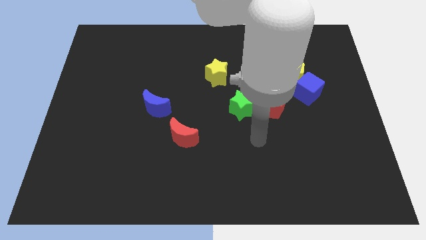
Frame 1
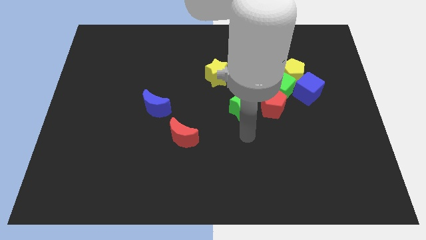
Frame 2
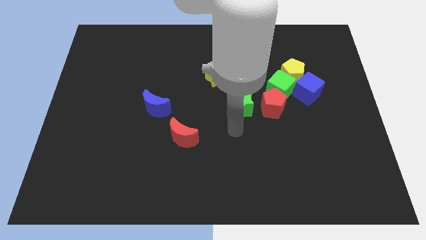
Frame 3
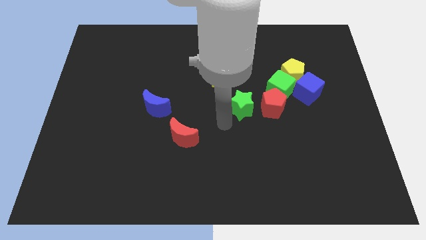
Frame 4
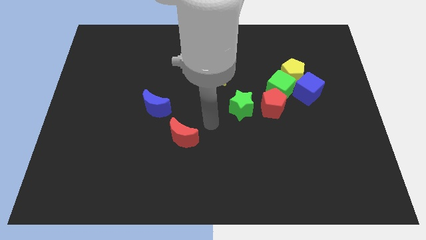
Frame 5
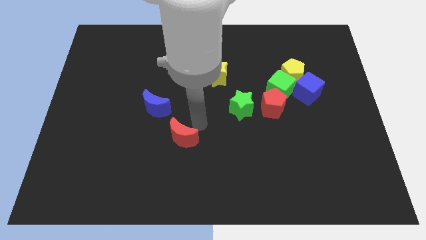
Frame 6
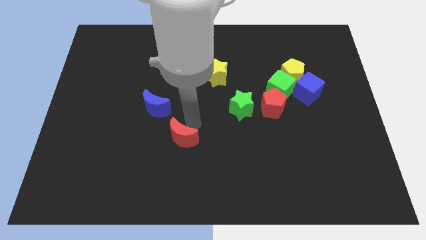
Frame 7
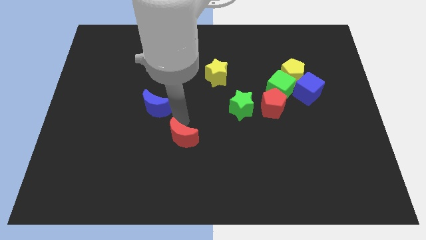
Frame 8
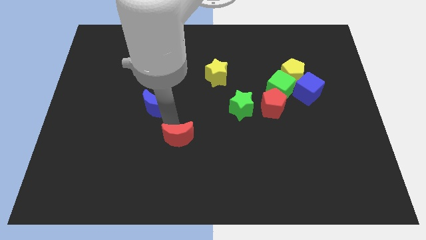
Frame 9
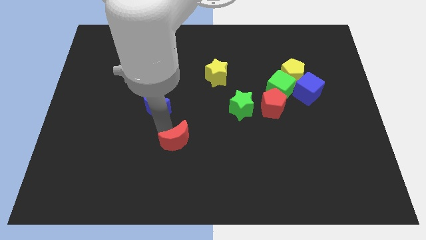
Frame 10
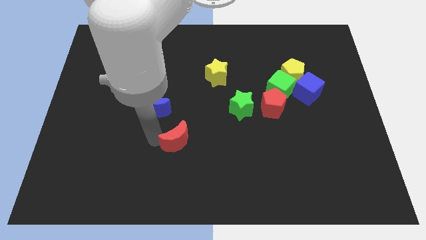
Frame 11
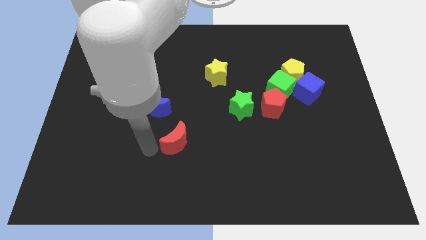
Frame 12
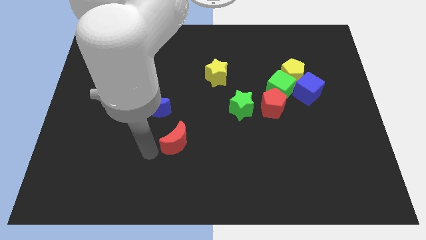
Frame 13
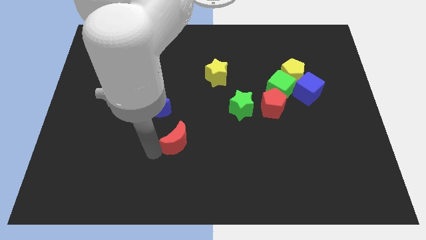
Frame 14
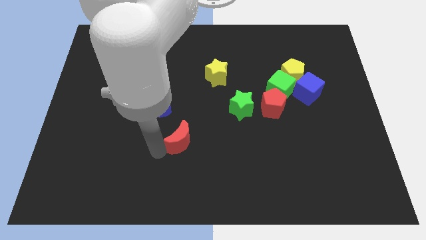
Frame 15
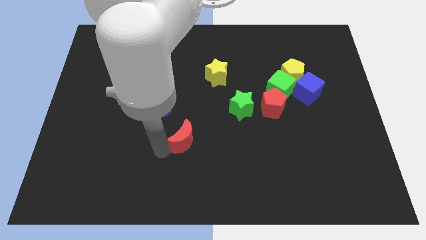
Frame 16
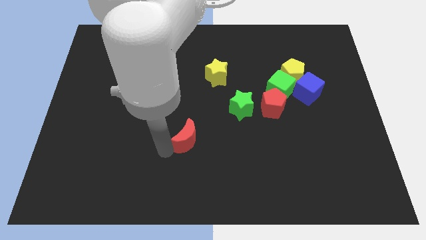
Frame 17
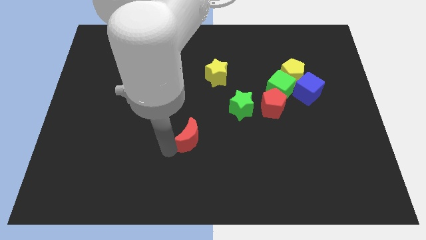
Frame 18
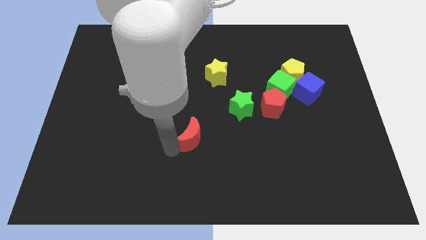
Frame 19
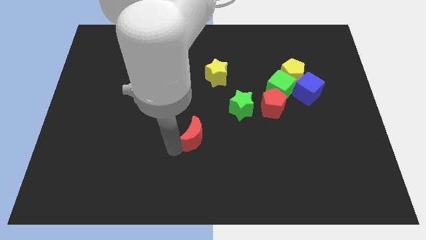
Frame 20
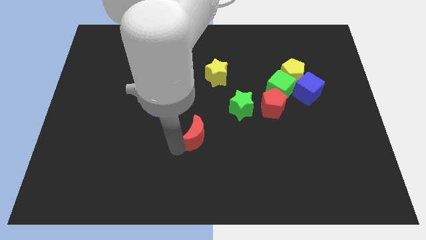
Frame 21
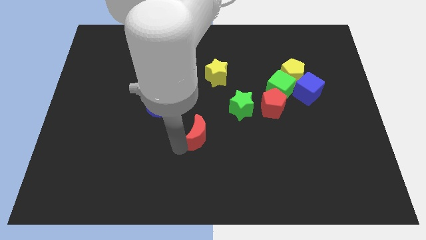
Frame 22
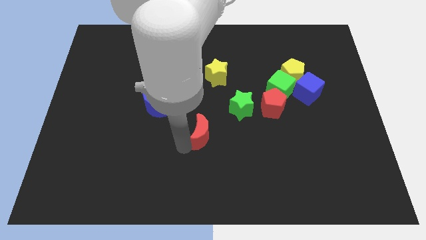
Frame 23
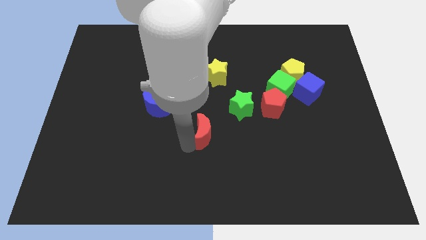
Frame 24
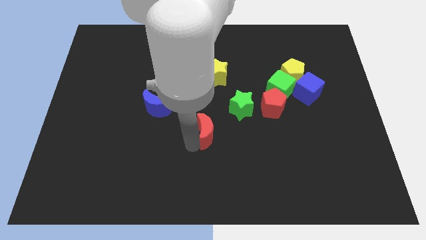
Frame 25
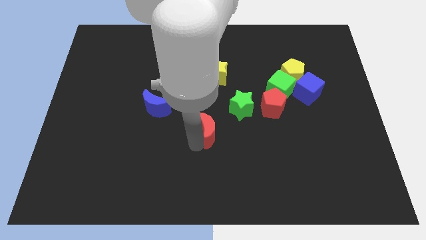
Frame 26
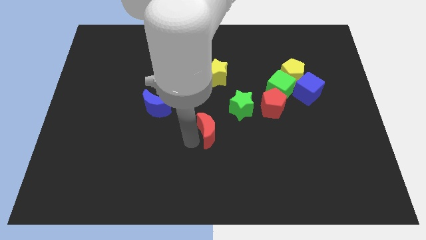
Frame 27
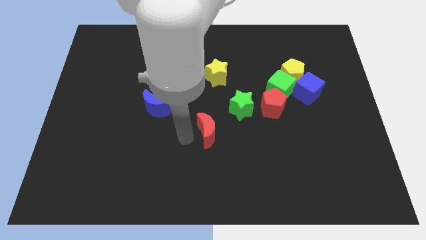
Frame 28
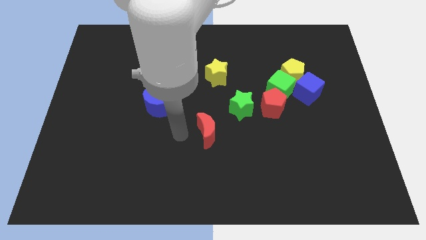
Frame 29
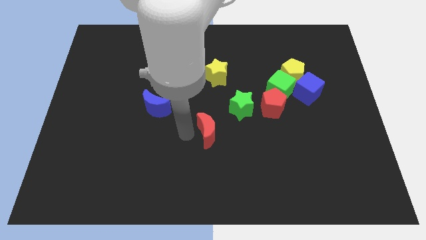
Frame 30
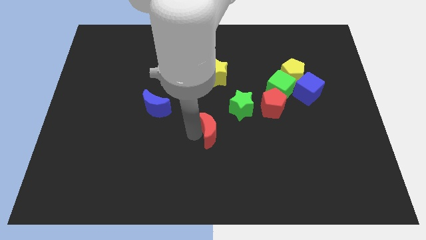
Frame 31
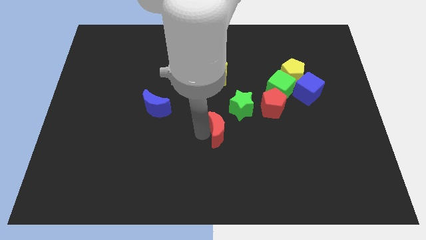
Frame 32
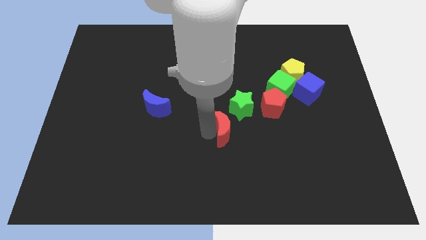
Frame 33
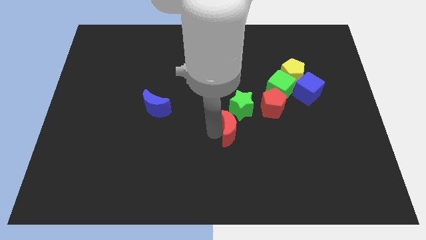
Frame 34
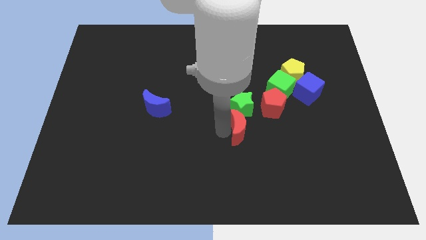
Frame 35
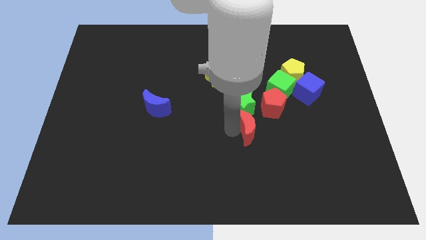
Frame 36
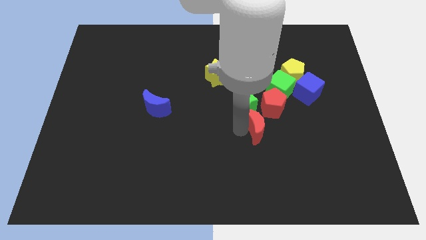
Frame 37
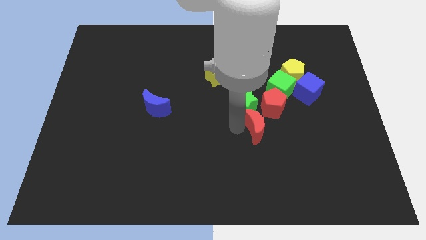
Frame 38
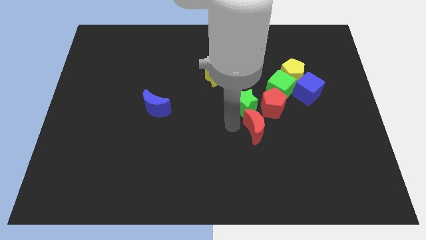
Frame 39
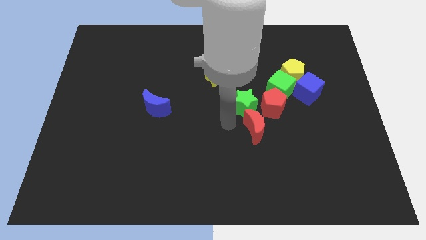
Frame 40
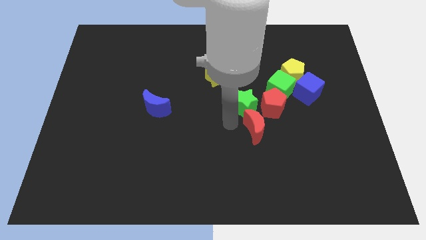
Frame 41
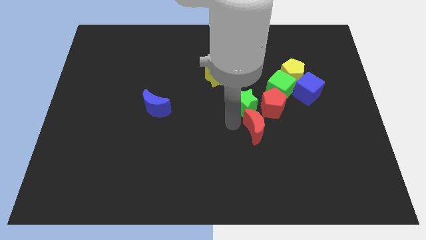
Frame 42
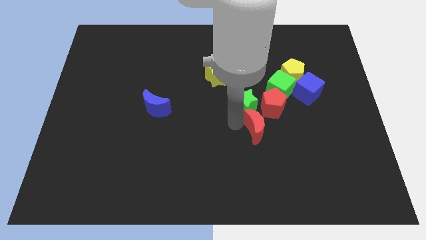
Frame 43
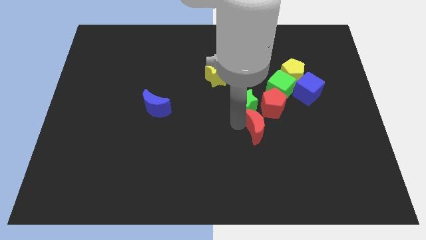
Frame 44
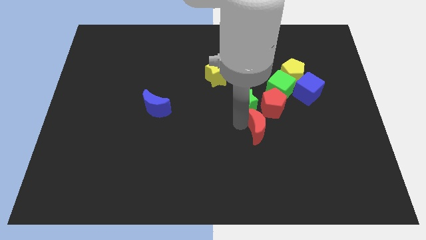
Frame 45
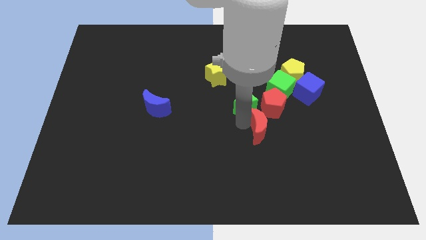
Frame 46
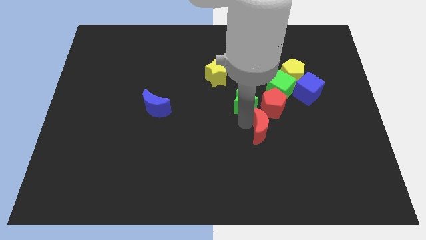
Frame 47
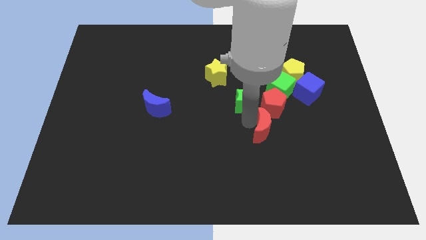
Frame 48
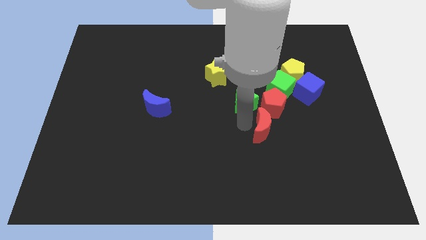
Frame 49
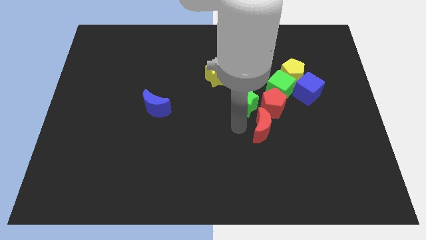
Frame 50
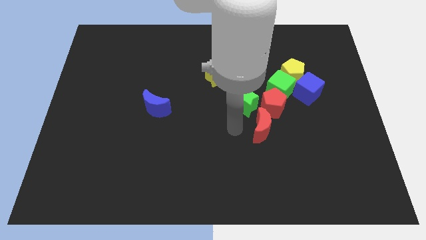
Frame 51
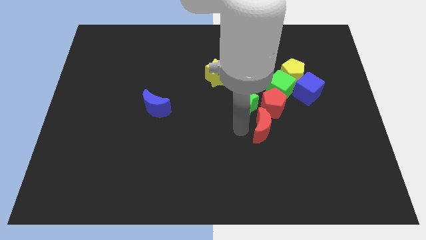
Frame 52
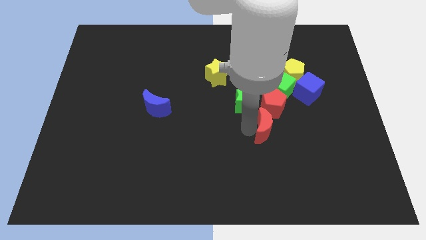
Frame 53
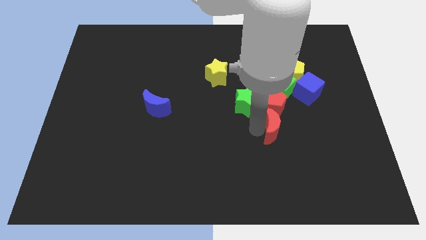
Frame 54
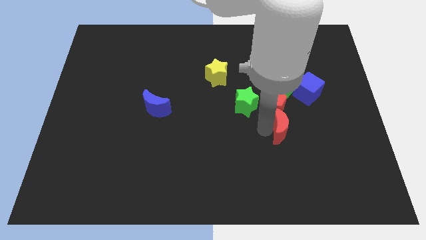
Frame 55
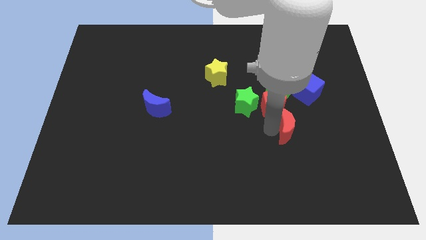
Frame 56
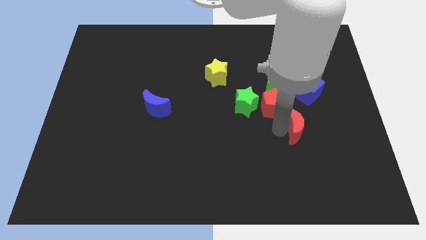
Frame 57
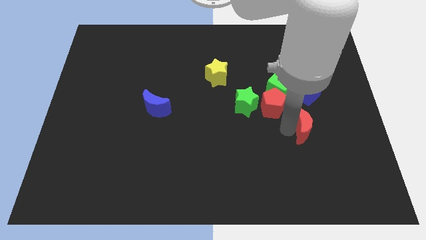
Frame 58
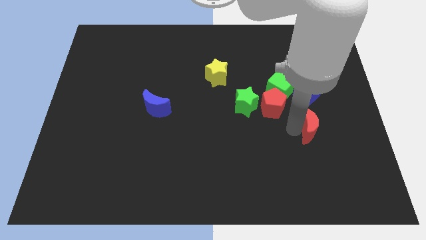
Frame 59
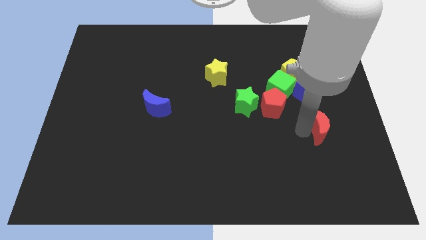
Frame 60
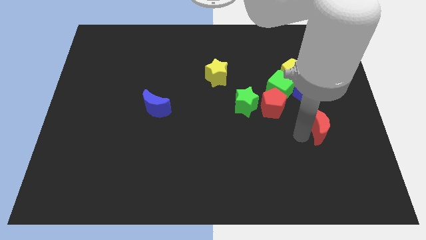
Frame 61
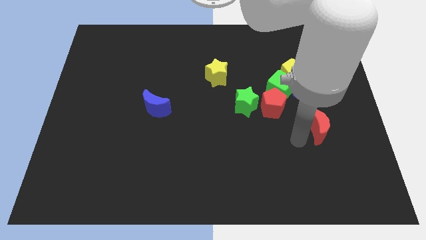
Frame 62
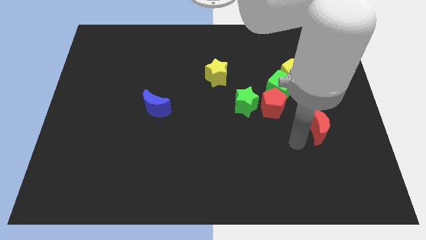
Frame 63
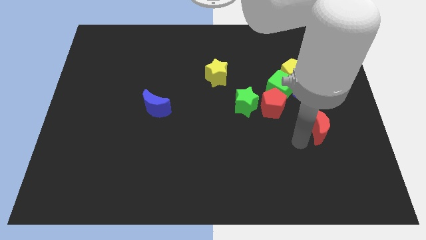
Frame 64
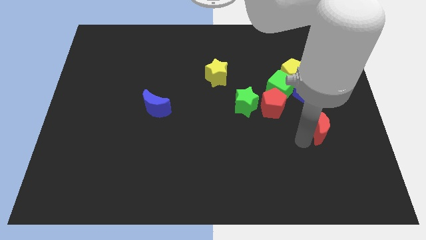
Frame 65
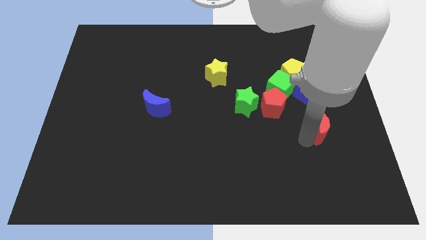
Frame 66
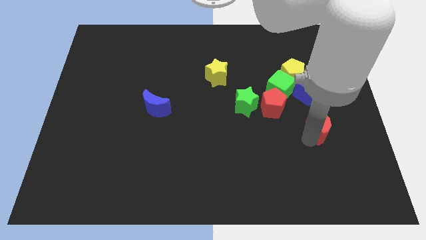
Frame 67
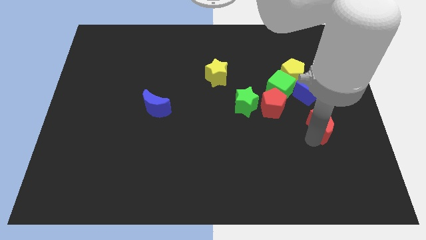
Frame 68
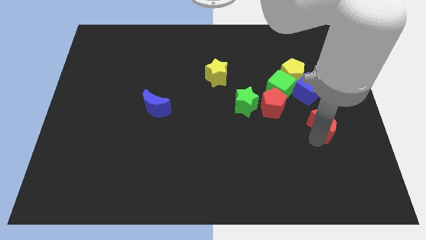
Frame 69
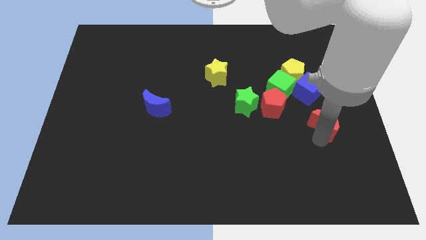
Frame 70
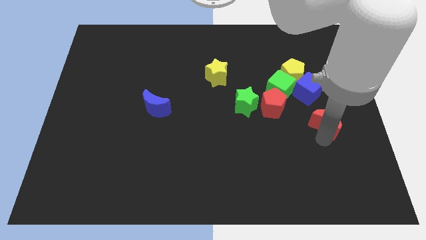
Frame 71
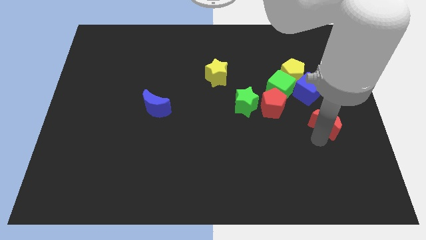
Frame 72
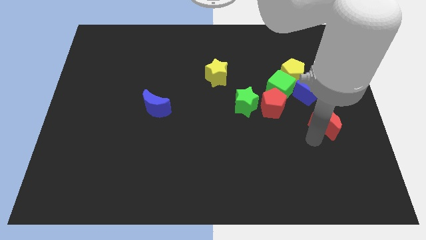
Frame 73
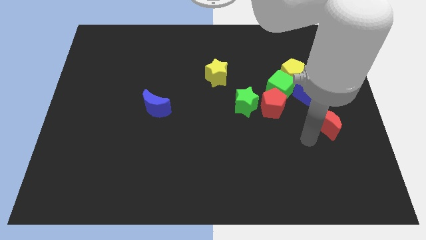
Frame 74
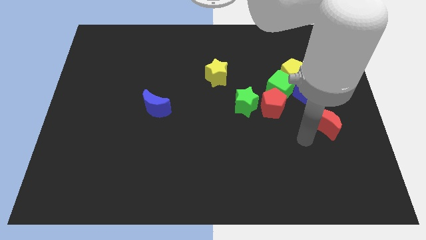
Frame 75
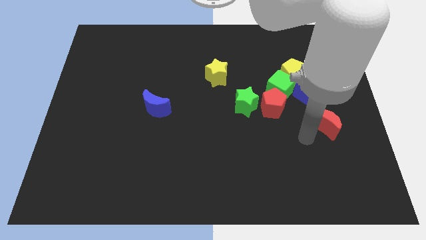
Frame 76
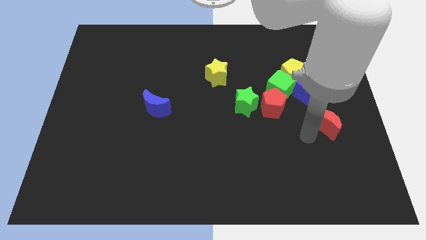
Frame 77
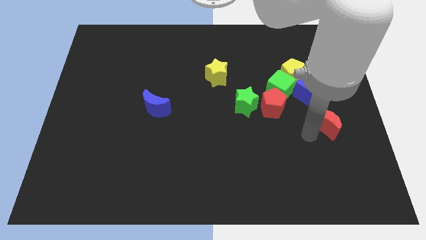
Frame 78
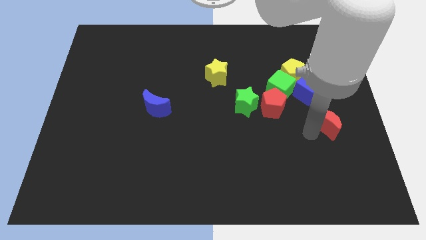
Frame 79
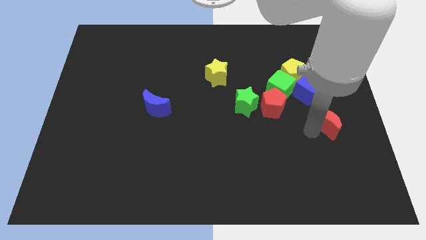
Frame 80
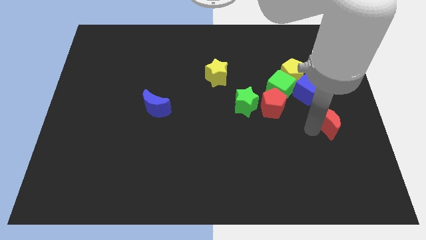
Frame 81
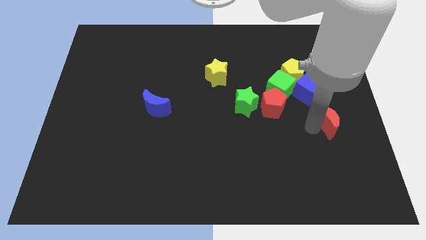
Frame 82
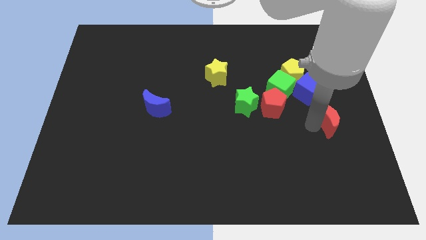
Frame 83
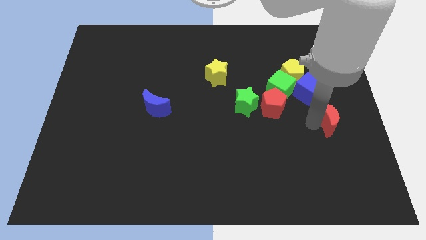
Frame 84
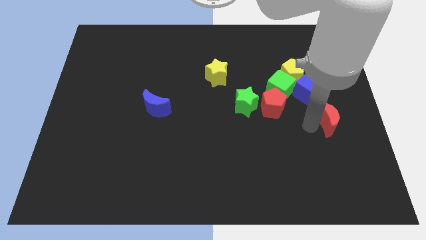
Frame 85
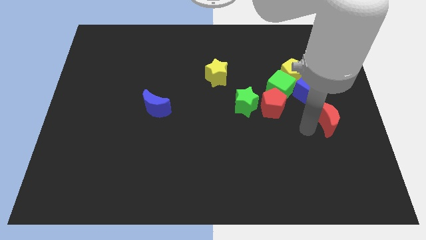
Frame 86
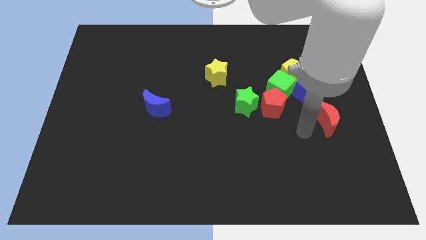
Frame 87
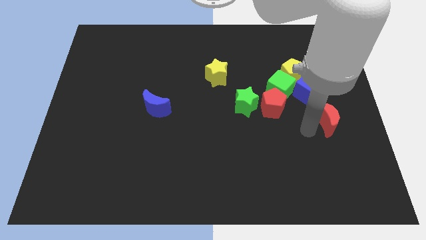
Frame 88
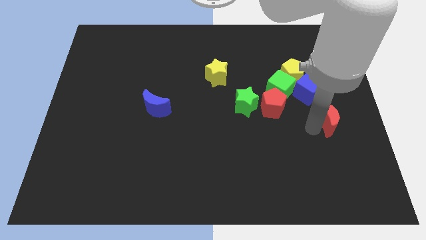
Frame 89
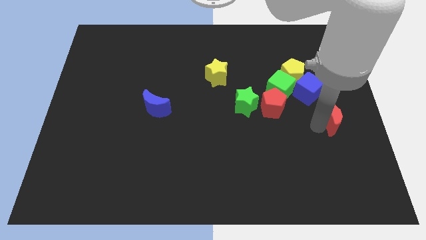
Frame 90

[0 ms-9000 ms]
move the red moon to the center right
